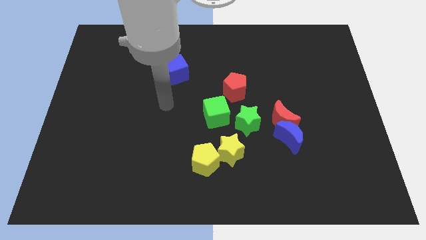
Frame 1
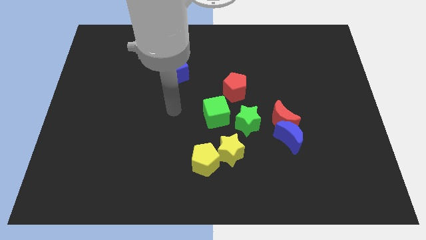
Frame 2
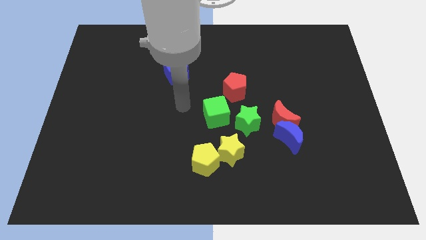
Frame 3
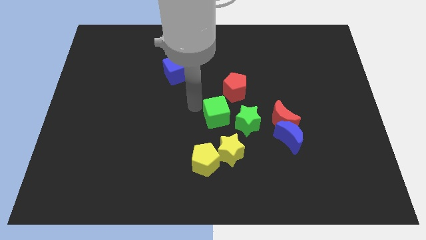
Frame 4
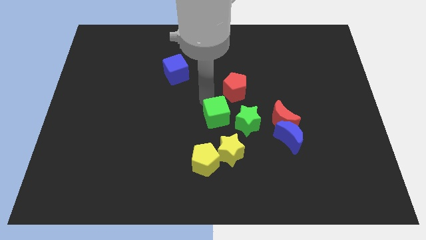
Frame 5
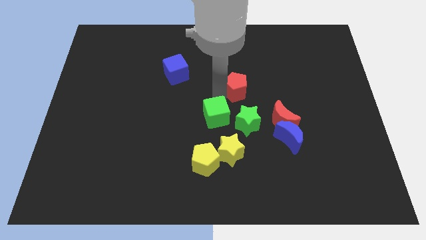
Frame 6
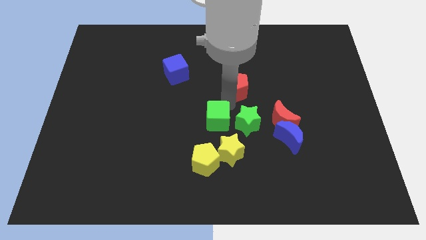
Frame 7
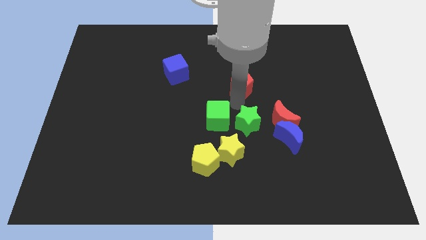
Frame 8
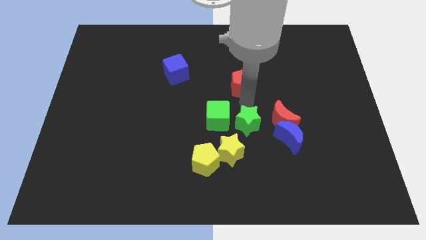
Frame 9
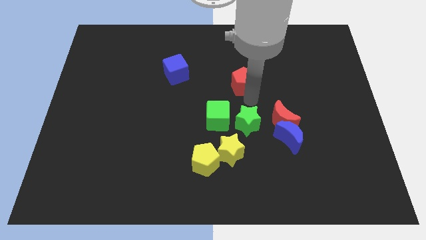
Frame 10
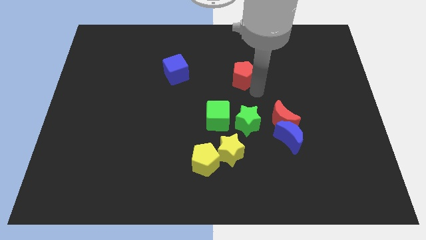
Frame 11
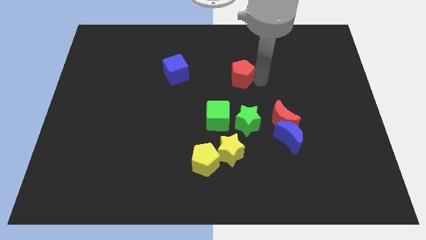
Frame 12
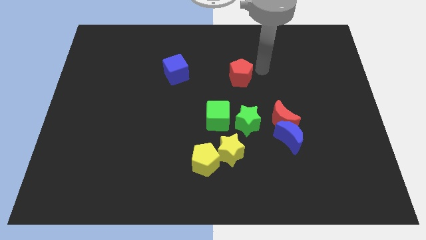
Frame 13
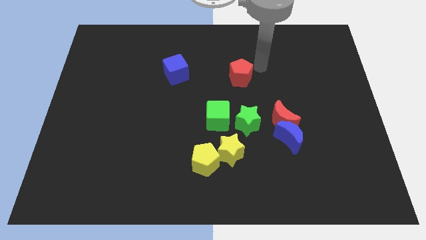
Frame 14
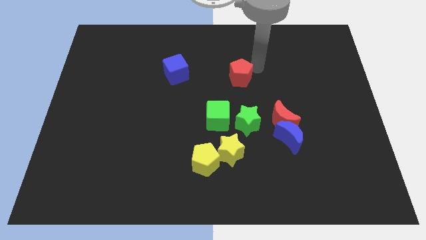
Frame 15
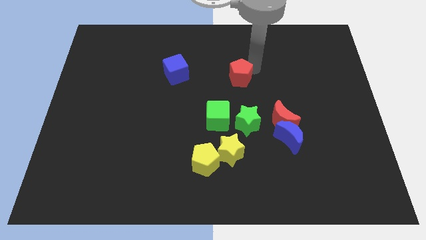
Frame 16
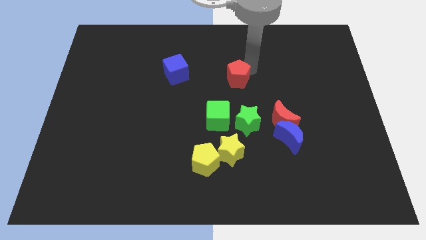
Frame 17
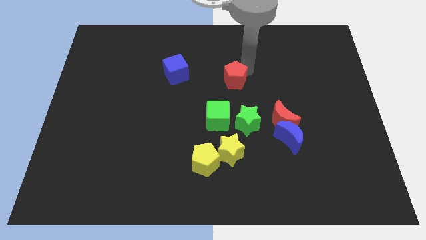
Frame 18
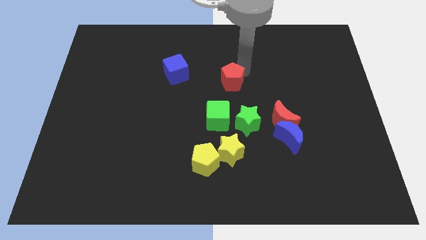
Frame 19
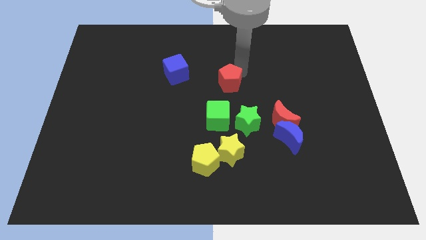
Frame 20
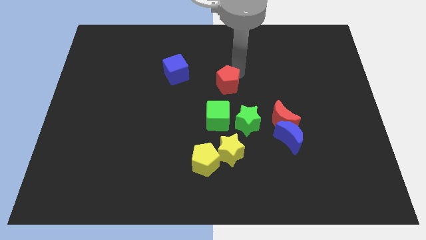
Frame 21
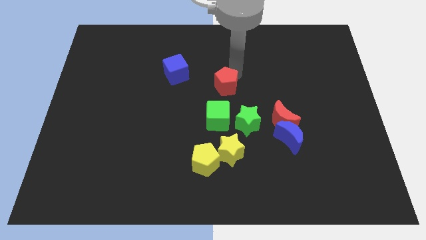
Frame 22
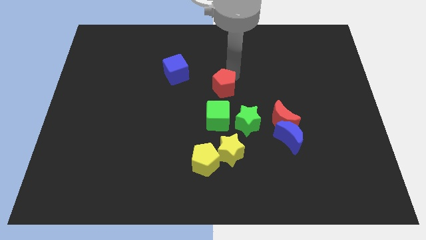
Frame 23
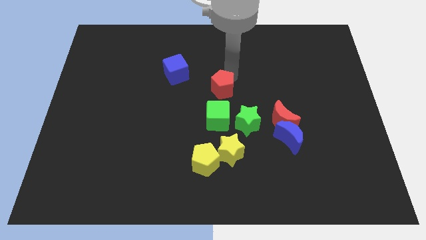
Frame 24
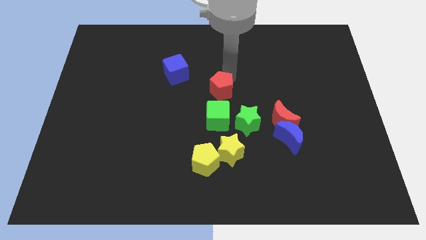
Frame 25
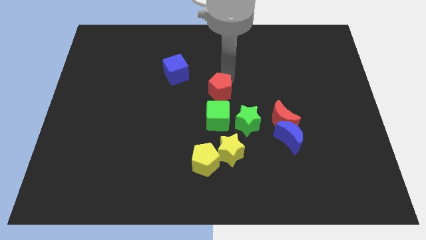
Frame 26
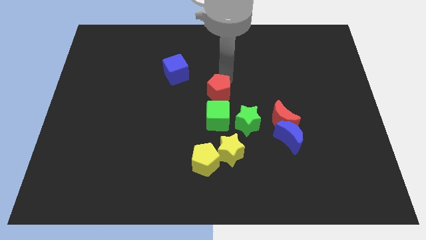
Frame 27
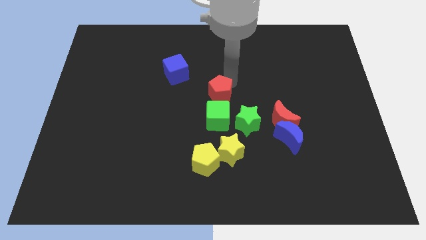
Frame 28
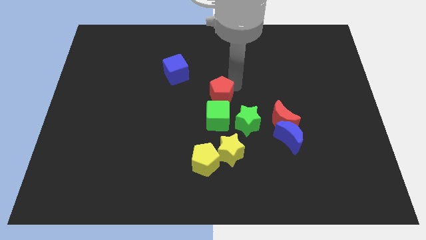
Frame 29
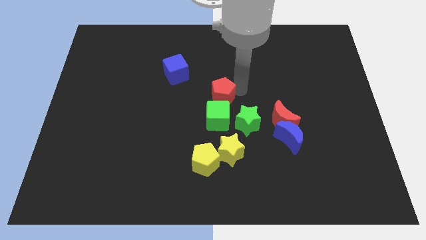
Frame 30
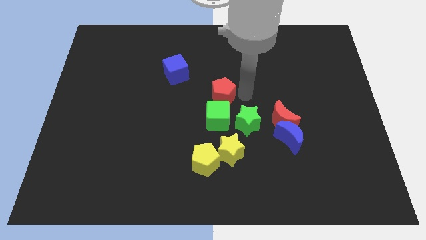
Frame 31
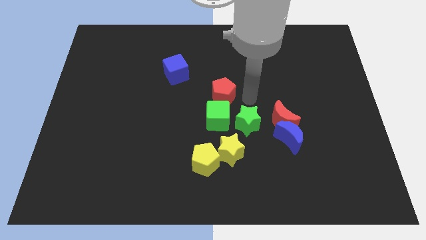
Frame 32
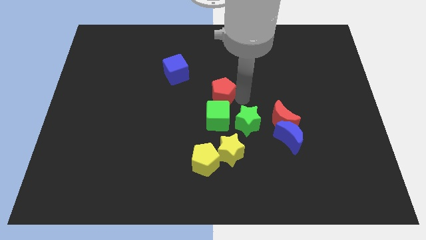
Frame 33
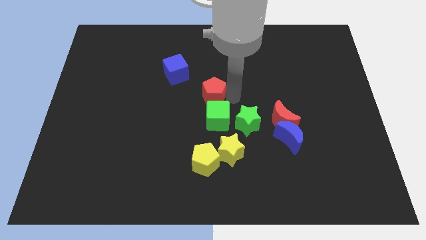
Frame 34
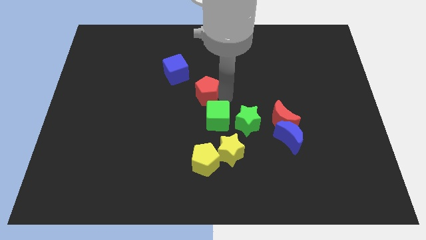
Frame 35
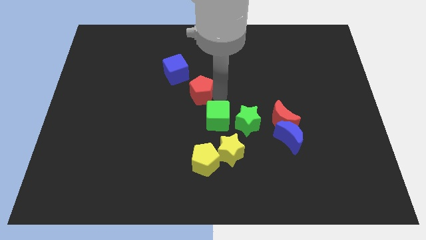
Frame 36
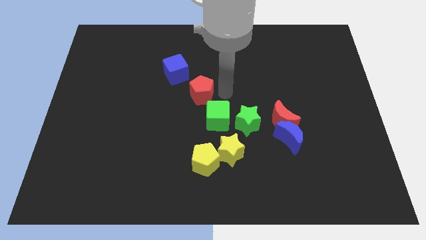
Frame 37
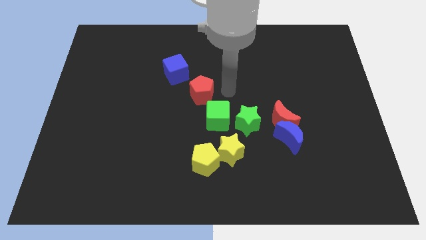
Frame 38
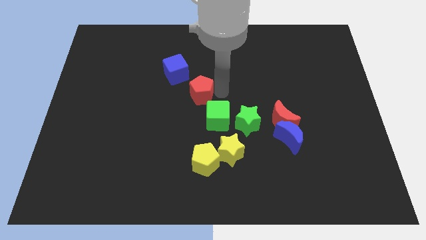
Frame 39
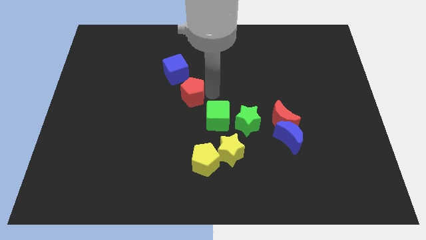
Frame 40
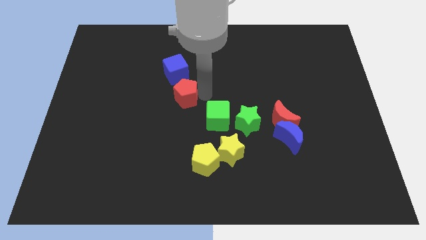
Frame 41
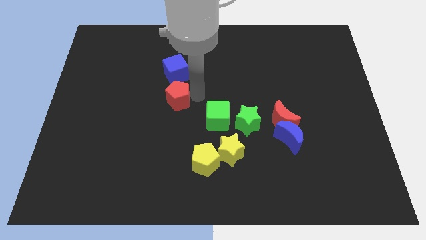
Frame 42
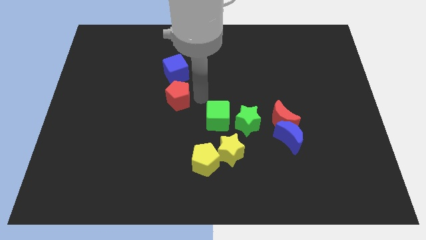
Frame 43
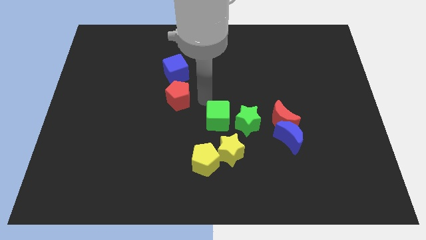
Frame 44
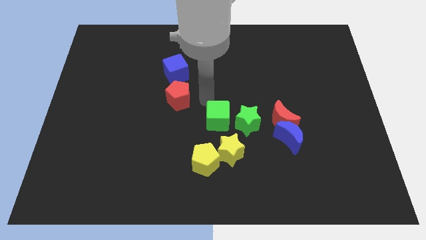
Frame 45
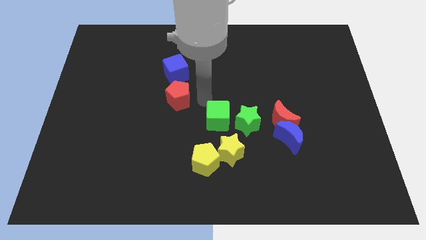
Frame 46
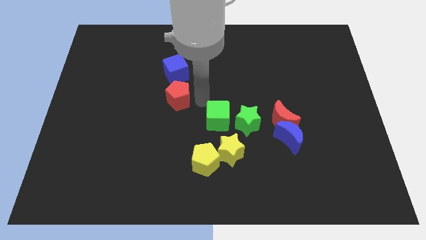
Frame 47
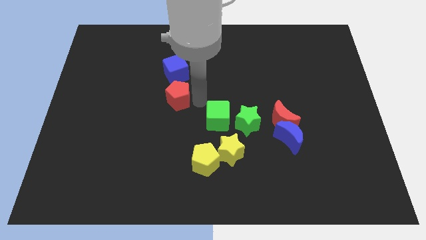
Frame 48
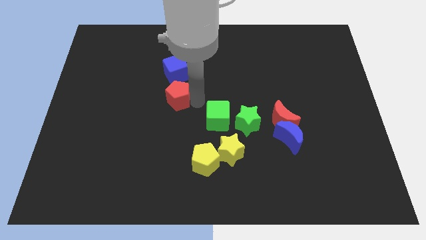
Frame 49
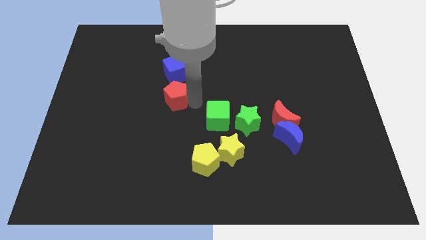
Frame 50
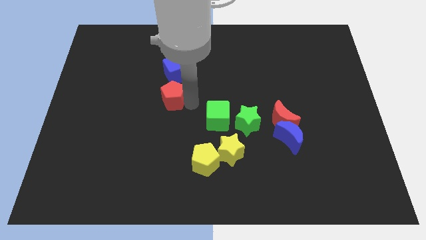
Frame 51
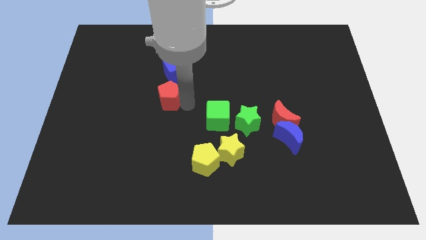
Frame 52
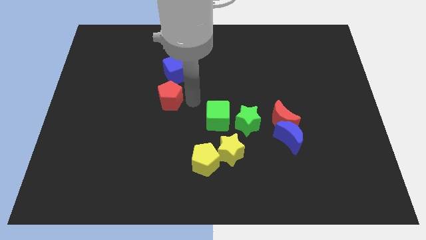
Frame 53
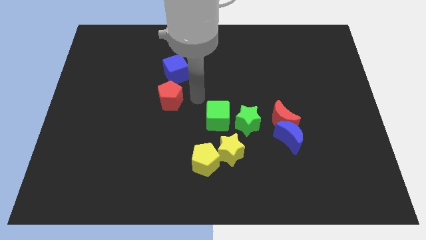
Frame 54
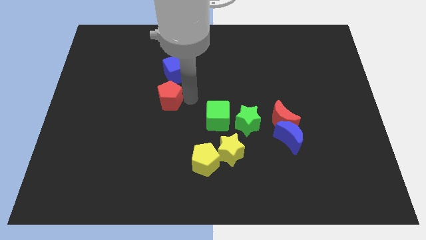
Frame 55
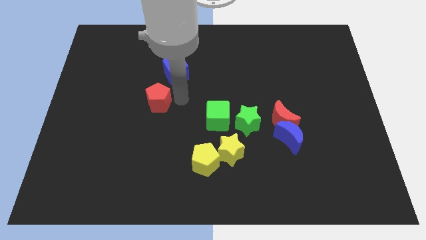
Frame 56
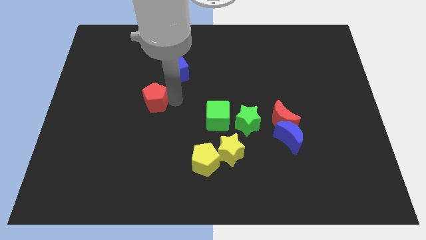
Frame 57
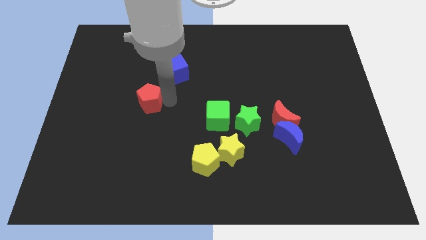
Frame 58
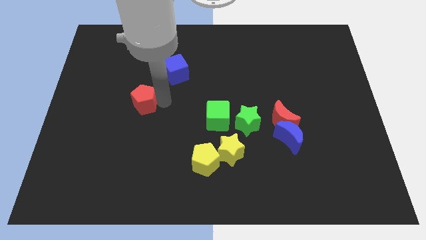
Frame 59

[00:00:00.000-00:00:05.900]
push the red pentagon to the left

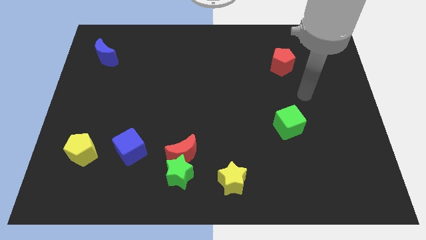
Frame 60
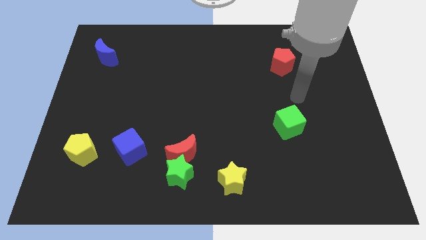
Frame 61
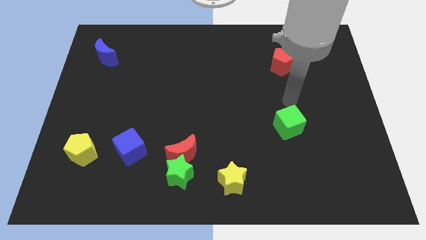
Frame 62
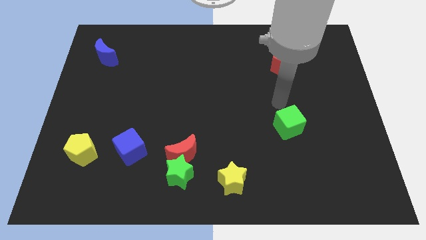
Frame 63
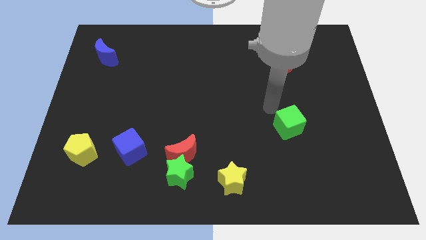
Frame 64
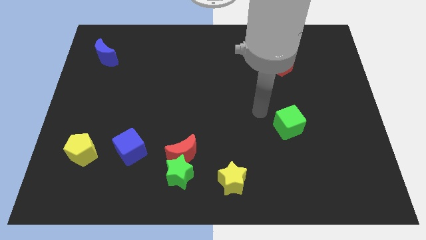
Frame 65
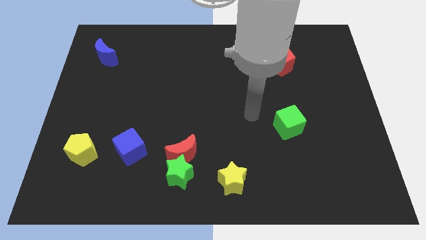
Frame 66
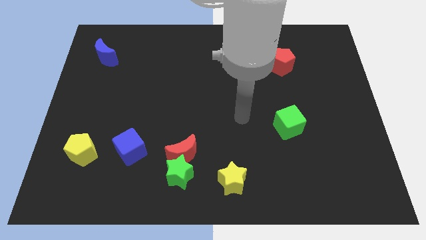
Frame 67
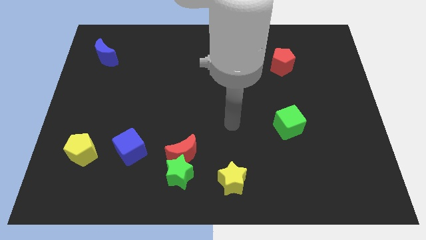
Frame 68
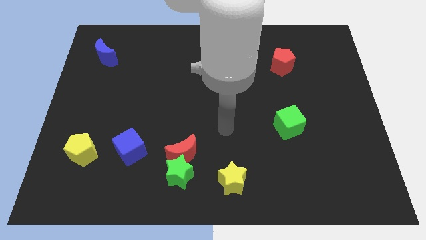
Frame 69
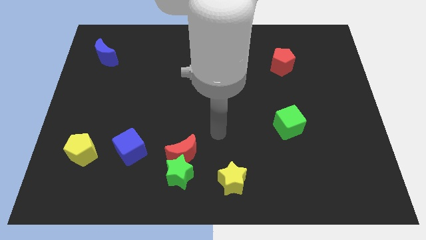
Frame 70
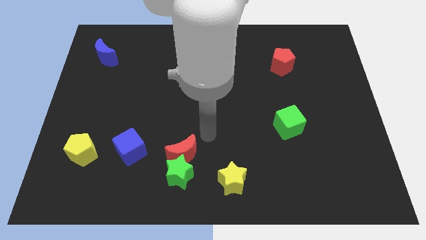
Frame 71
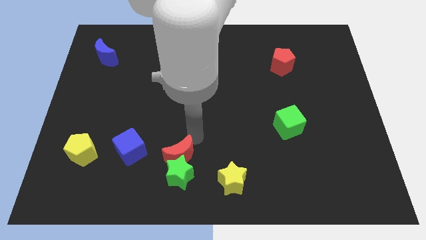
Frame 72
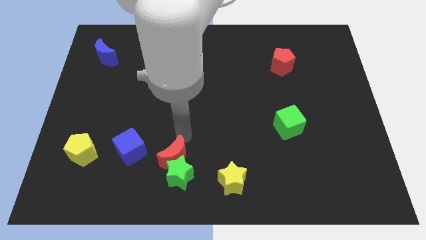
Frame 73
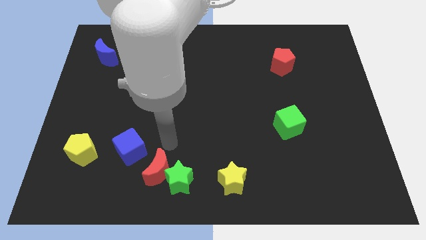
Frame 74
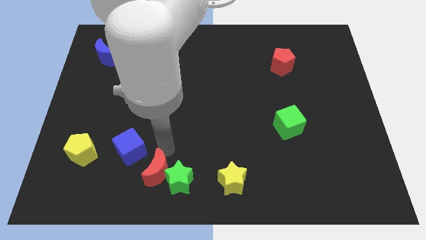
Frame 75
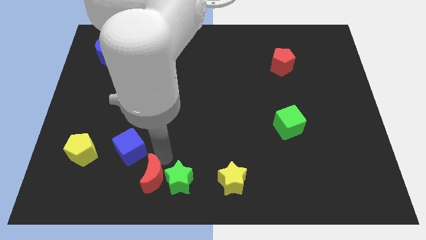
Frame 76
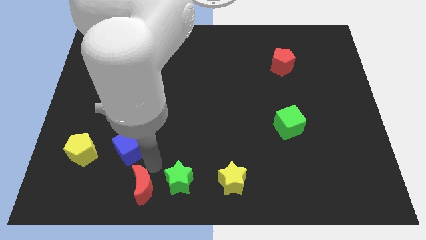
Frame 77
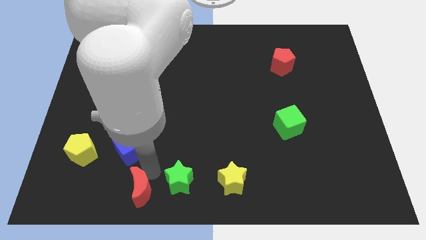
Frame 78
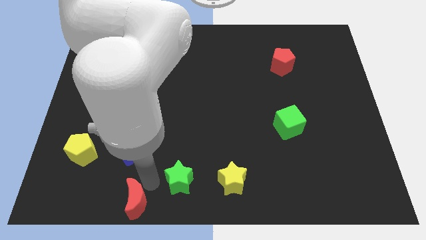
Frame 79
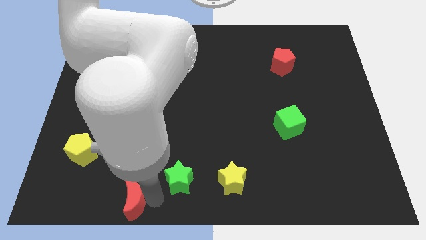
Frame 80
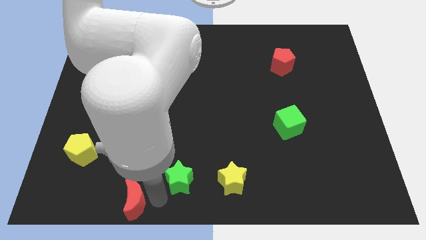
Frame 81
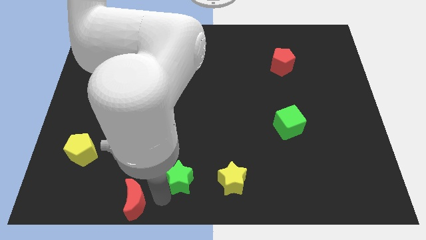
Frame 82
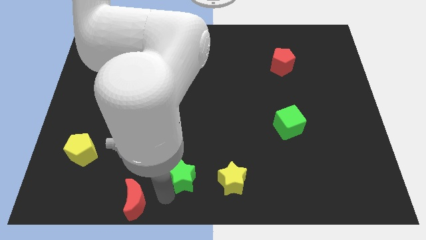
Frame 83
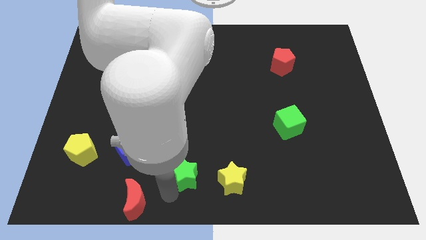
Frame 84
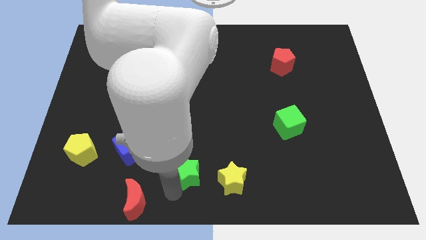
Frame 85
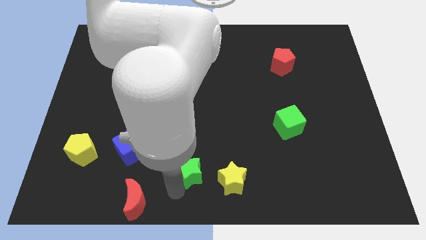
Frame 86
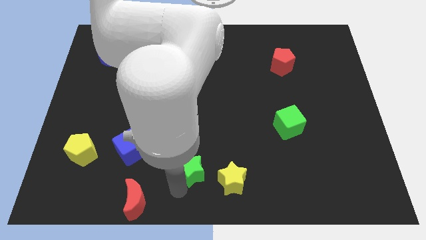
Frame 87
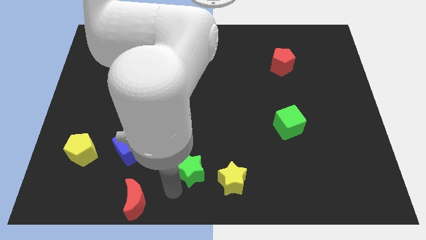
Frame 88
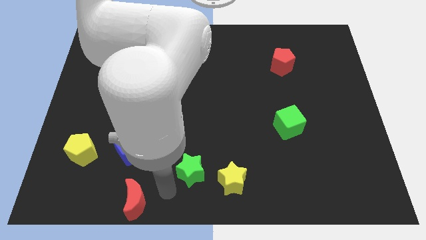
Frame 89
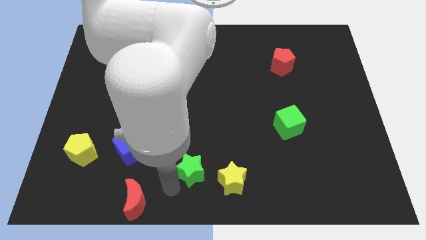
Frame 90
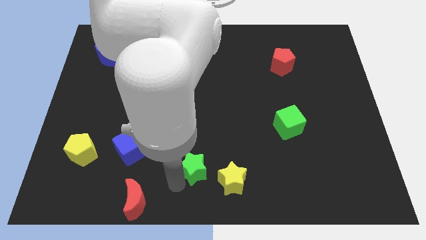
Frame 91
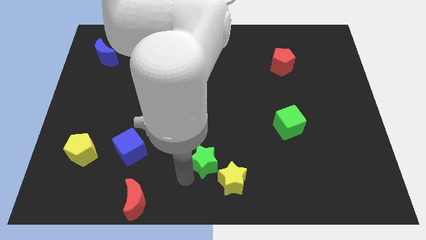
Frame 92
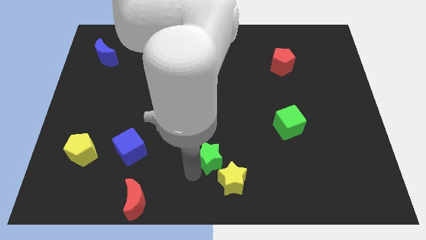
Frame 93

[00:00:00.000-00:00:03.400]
slightly push the green star up and to the right
